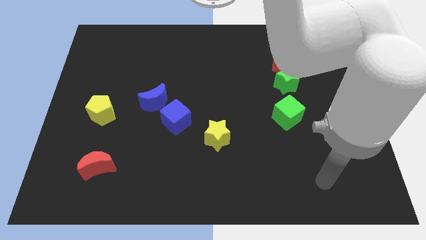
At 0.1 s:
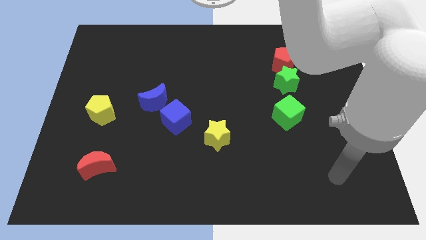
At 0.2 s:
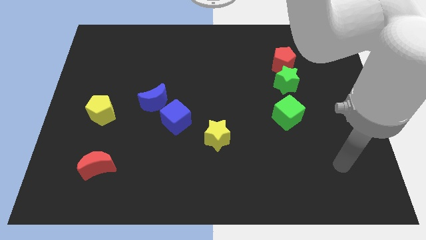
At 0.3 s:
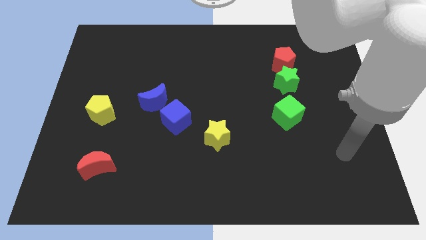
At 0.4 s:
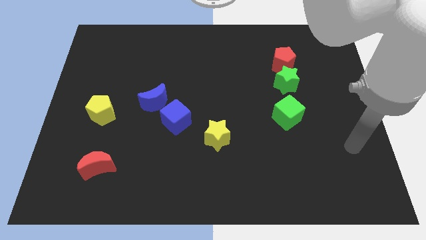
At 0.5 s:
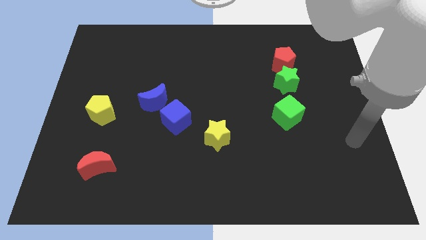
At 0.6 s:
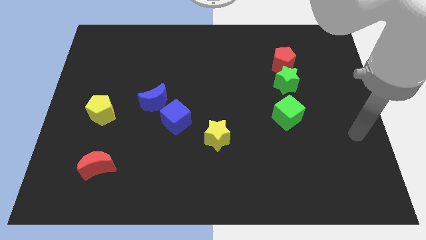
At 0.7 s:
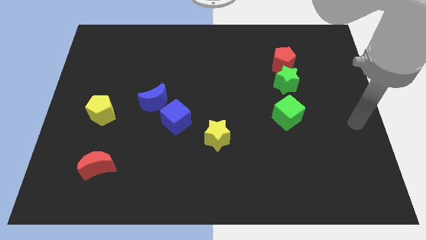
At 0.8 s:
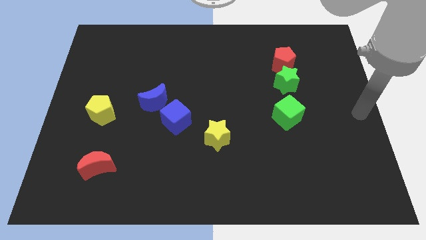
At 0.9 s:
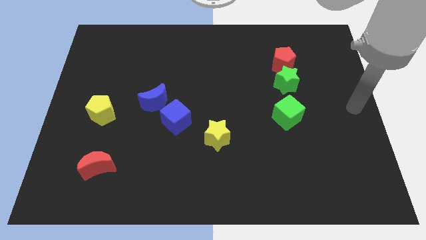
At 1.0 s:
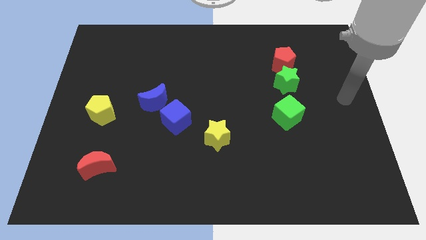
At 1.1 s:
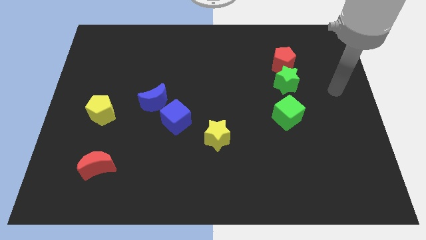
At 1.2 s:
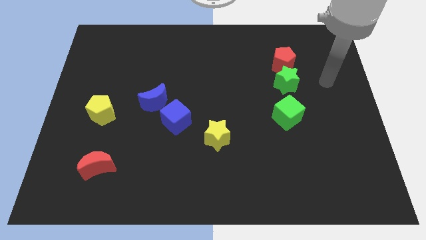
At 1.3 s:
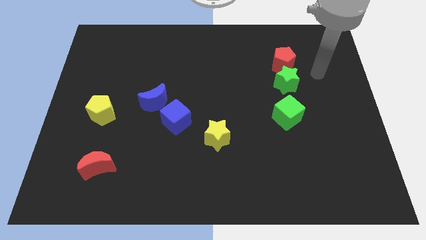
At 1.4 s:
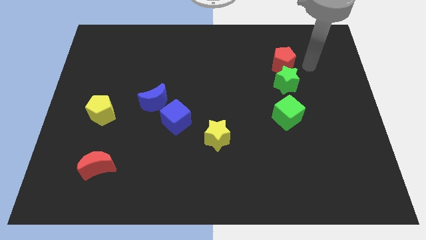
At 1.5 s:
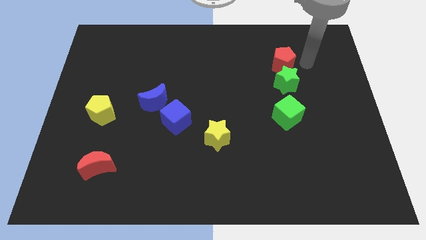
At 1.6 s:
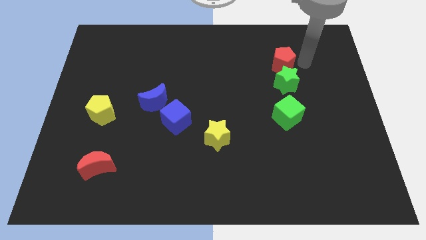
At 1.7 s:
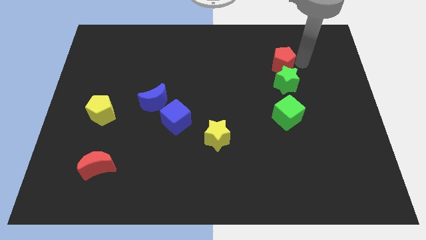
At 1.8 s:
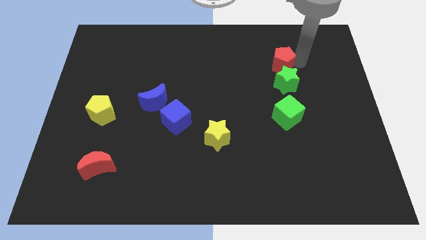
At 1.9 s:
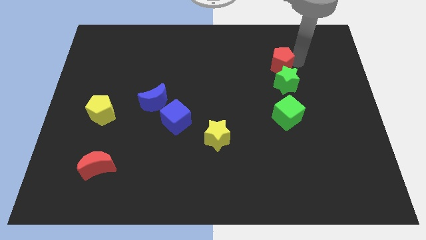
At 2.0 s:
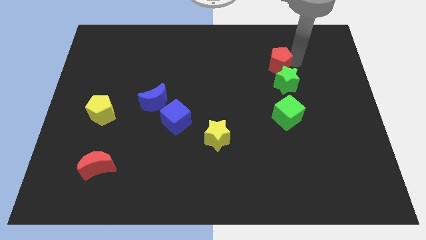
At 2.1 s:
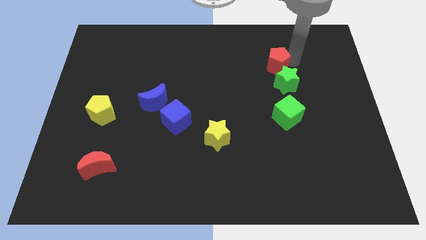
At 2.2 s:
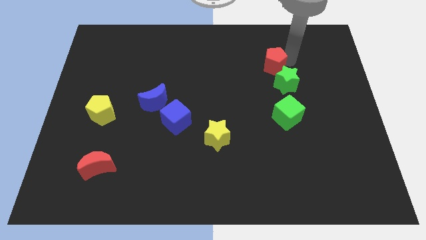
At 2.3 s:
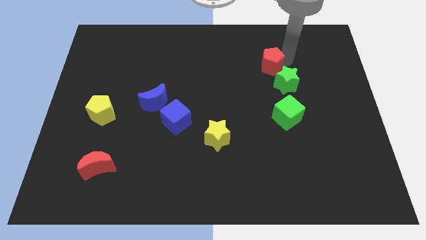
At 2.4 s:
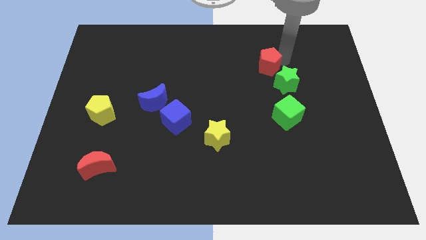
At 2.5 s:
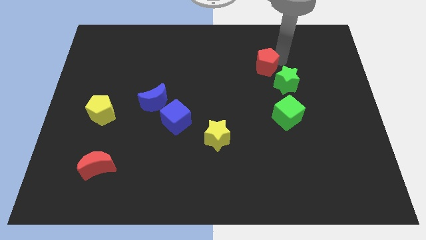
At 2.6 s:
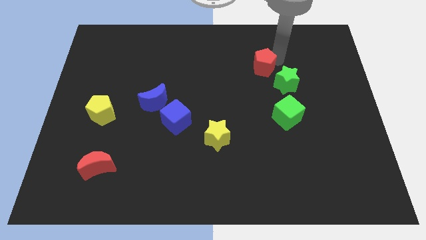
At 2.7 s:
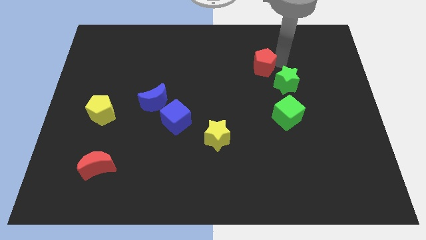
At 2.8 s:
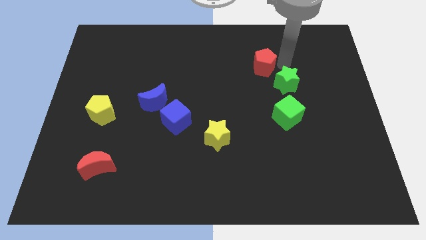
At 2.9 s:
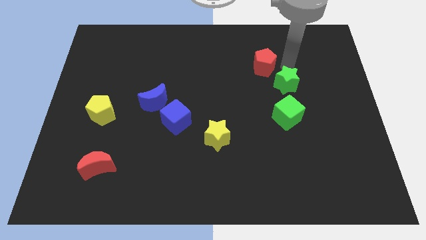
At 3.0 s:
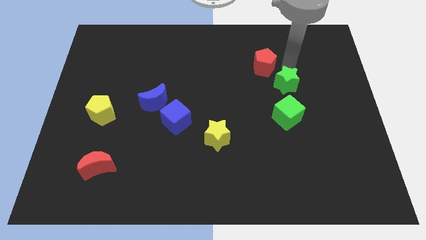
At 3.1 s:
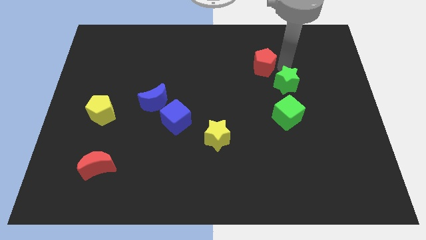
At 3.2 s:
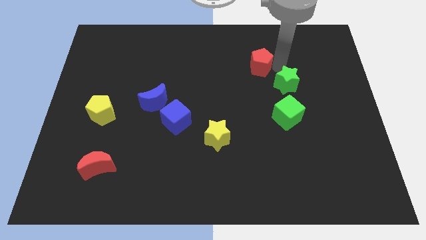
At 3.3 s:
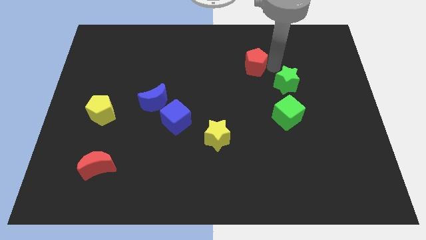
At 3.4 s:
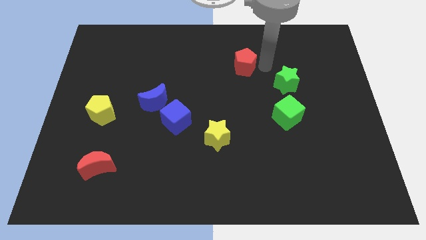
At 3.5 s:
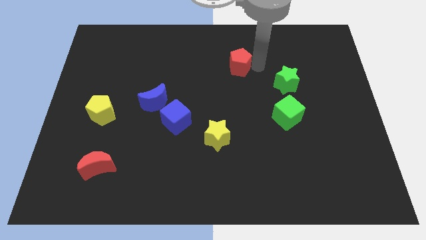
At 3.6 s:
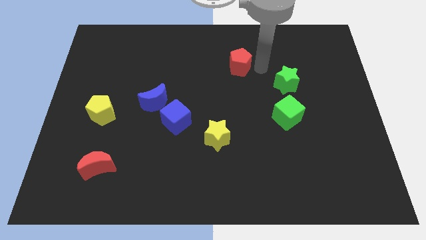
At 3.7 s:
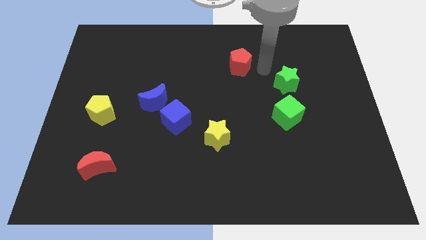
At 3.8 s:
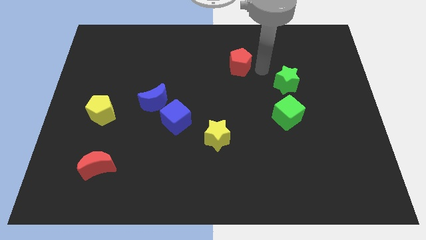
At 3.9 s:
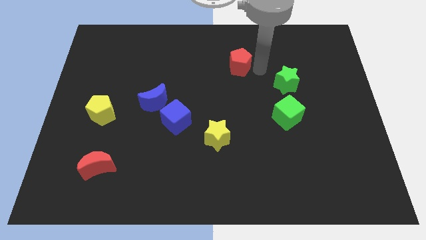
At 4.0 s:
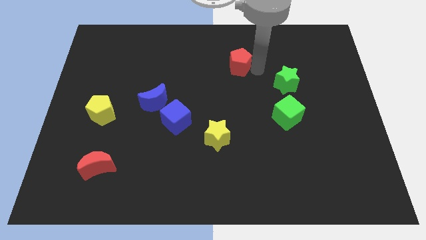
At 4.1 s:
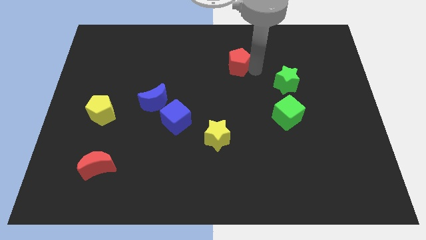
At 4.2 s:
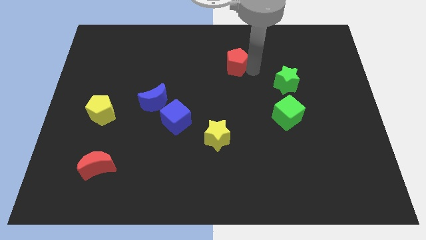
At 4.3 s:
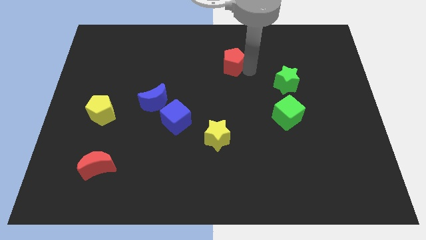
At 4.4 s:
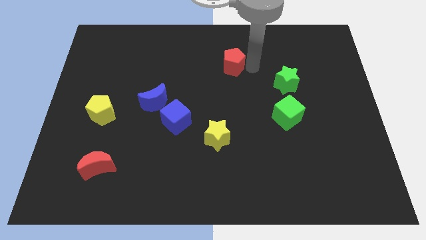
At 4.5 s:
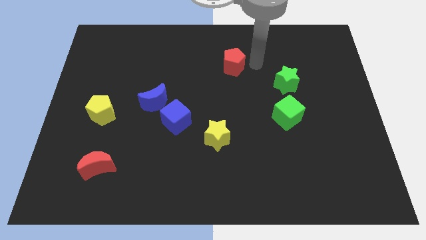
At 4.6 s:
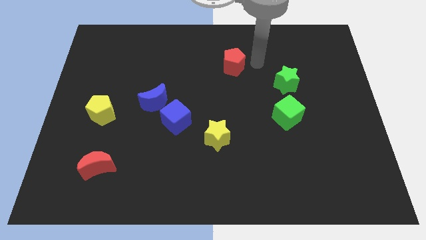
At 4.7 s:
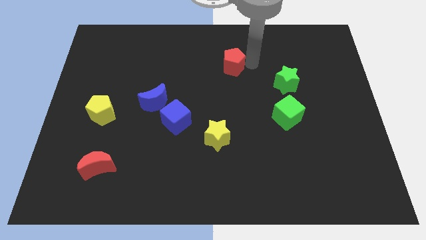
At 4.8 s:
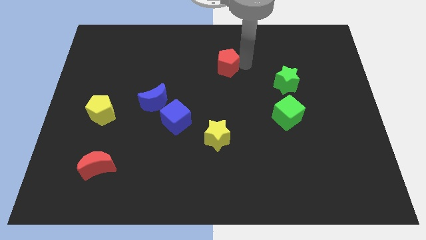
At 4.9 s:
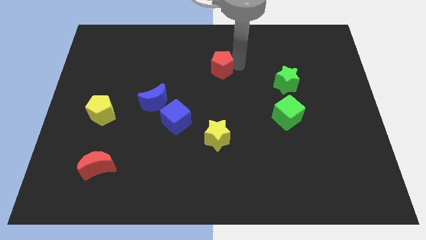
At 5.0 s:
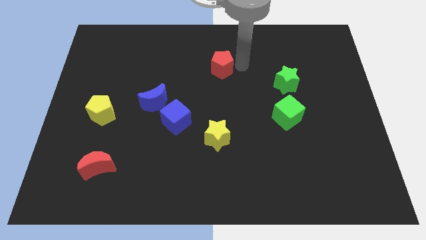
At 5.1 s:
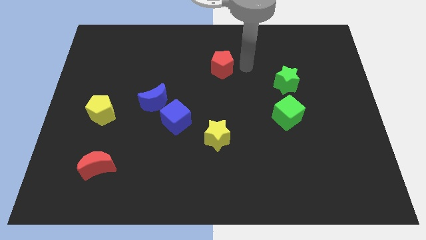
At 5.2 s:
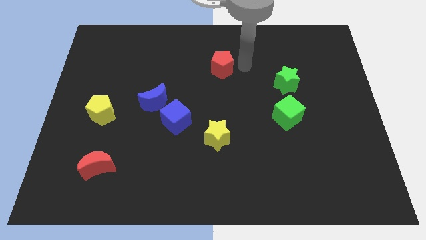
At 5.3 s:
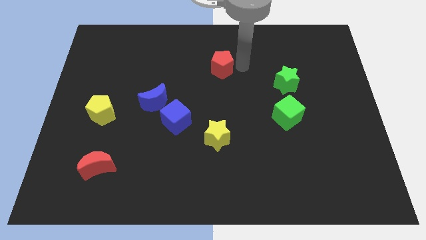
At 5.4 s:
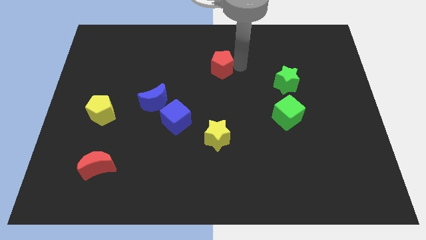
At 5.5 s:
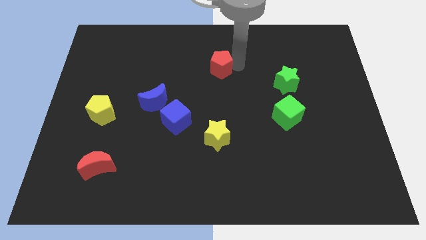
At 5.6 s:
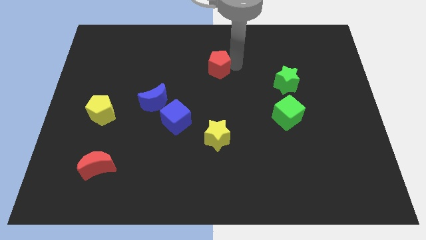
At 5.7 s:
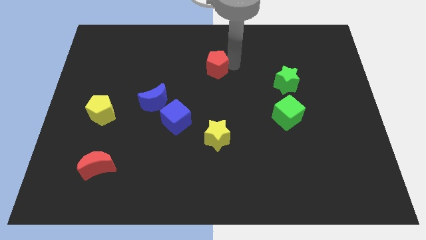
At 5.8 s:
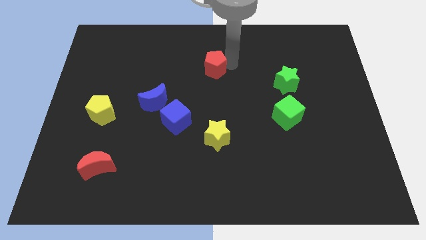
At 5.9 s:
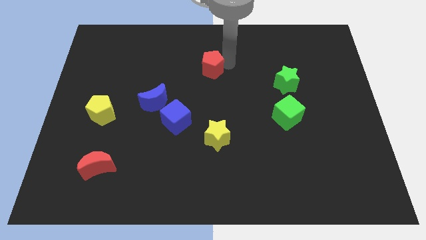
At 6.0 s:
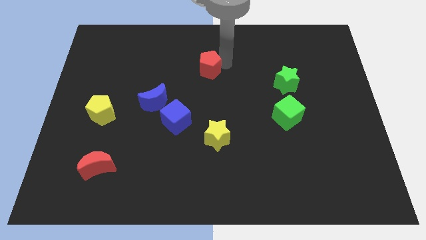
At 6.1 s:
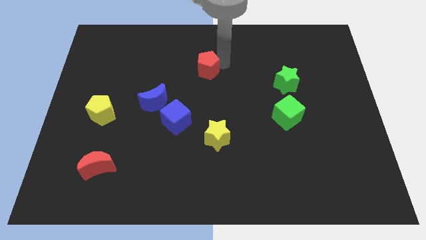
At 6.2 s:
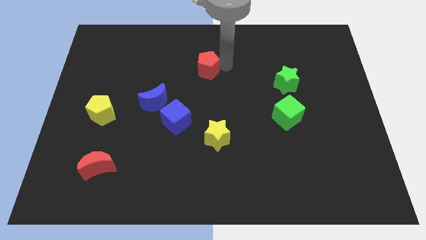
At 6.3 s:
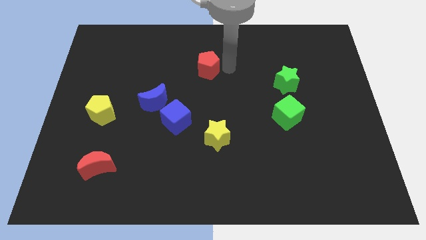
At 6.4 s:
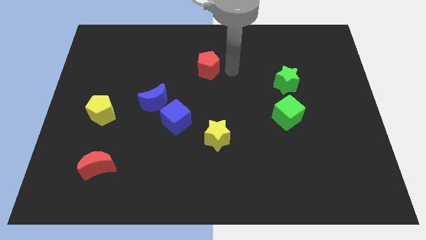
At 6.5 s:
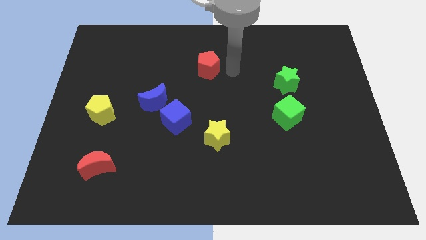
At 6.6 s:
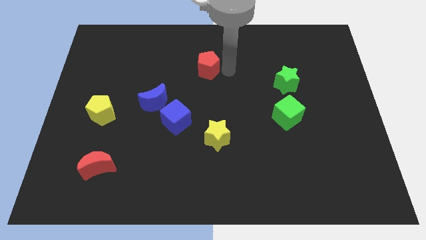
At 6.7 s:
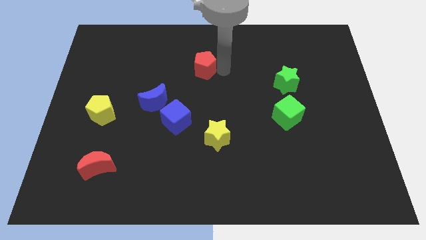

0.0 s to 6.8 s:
move the red pentagon to the left

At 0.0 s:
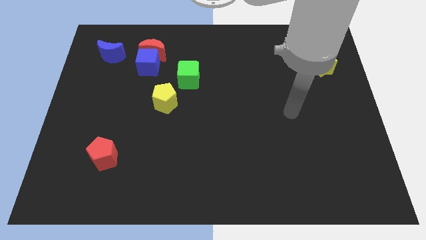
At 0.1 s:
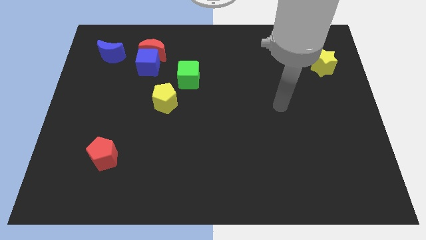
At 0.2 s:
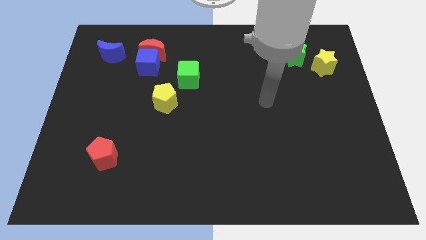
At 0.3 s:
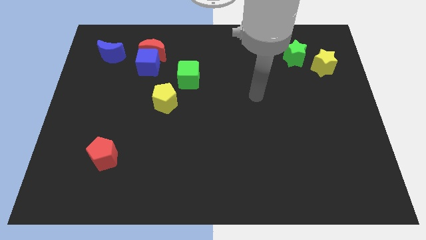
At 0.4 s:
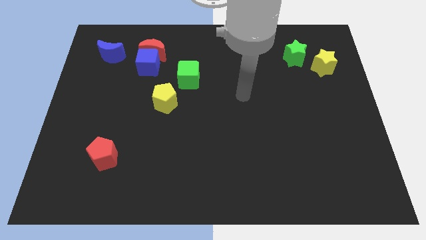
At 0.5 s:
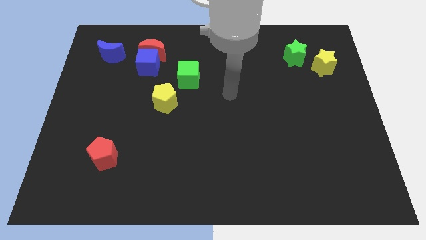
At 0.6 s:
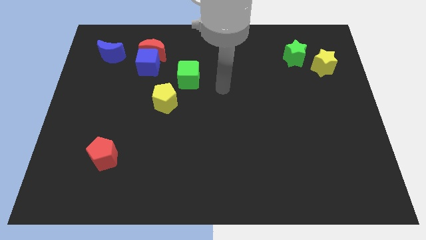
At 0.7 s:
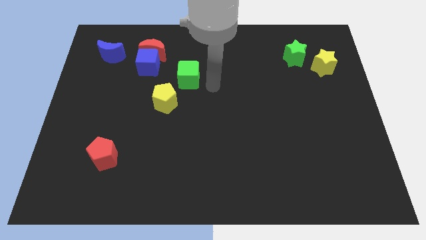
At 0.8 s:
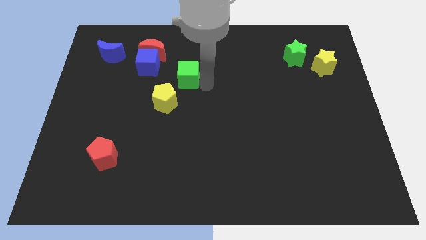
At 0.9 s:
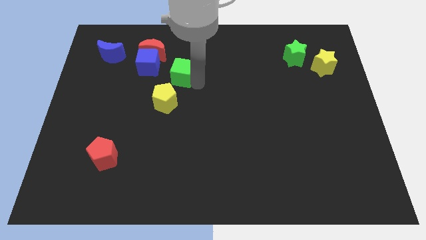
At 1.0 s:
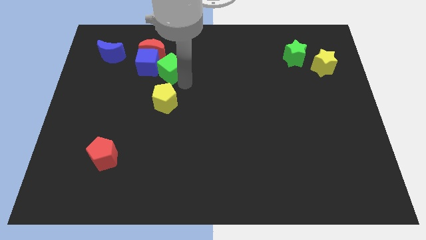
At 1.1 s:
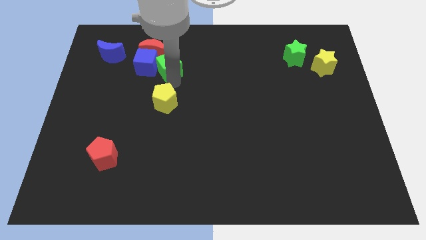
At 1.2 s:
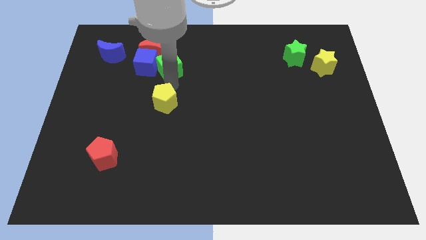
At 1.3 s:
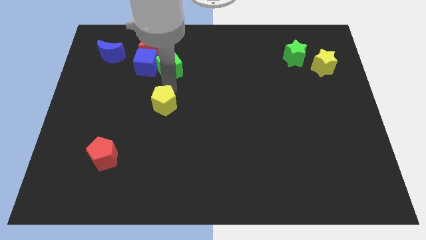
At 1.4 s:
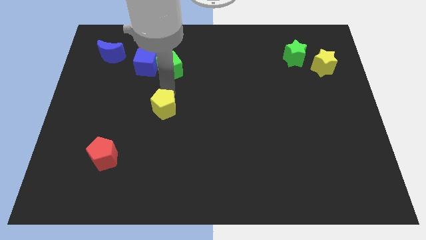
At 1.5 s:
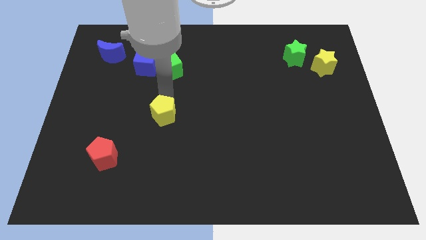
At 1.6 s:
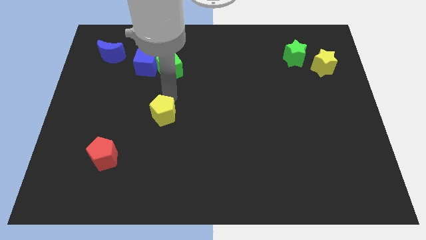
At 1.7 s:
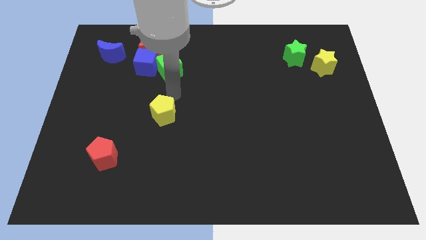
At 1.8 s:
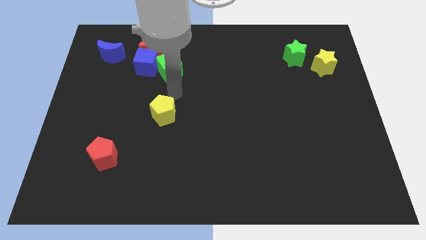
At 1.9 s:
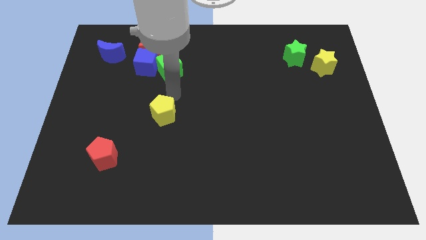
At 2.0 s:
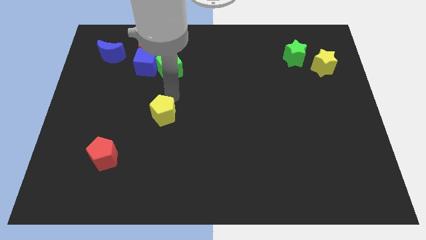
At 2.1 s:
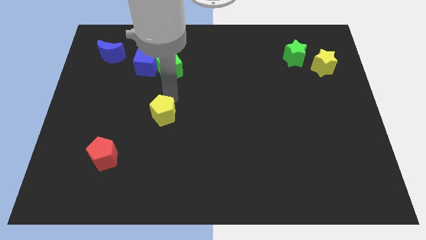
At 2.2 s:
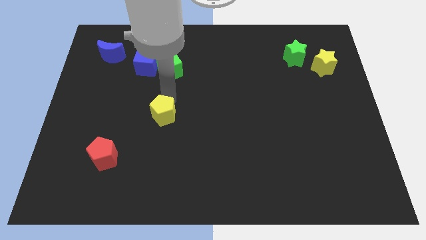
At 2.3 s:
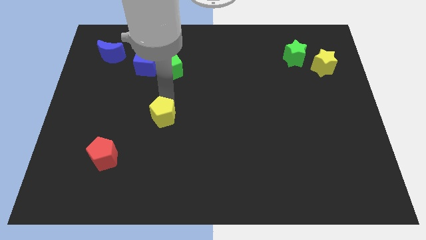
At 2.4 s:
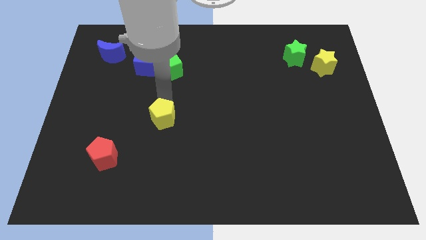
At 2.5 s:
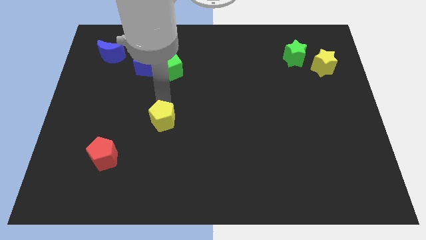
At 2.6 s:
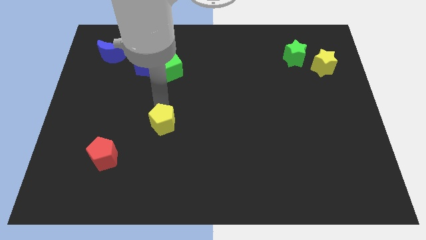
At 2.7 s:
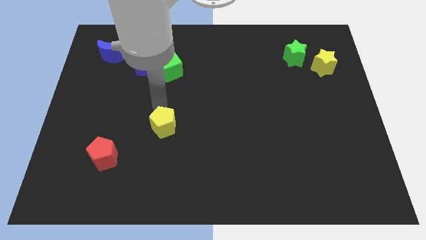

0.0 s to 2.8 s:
slide the yellow pentagon down a little
